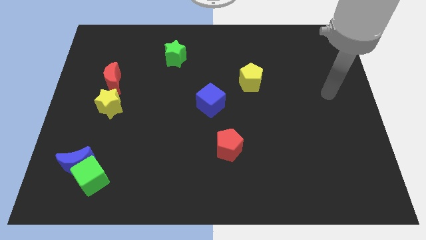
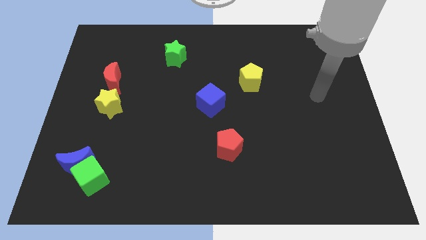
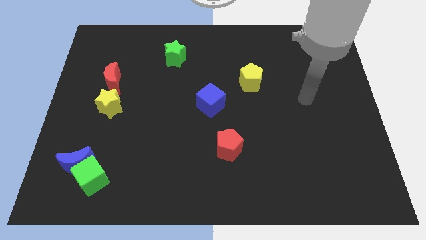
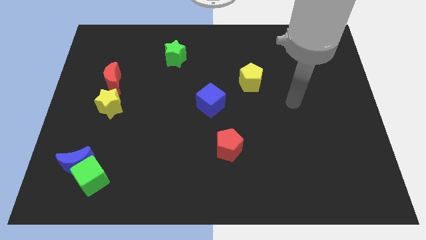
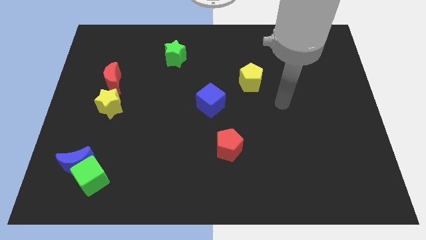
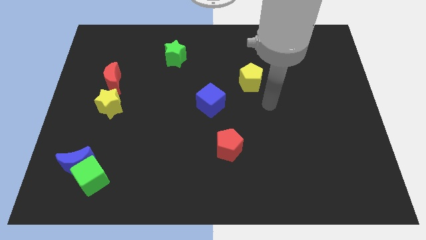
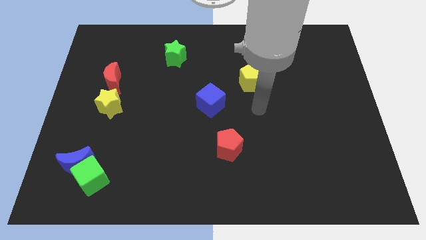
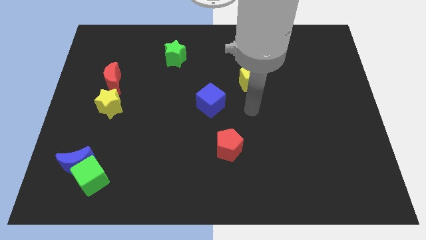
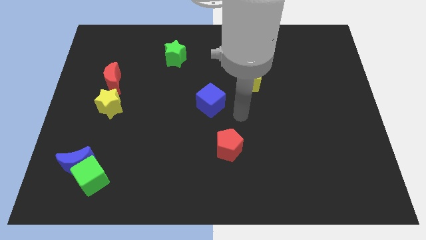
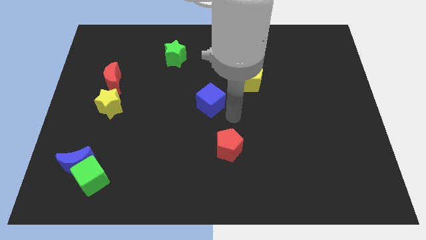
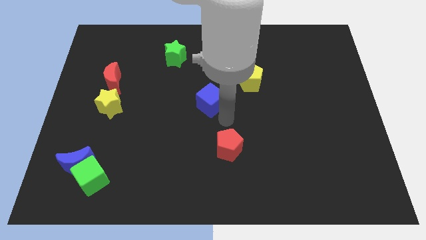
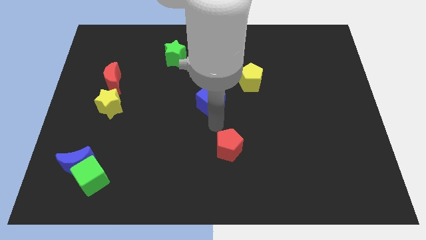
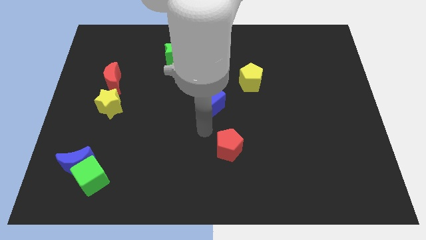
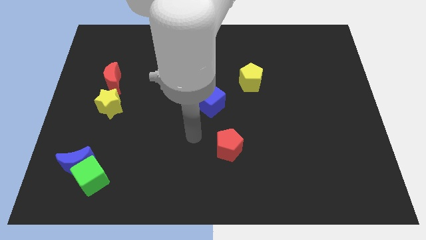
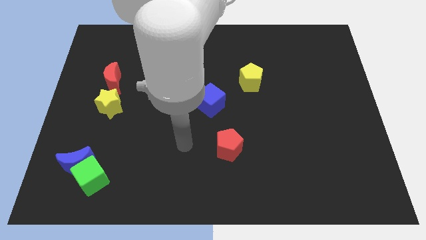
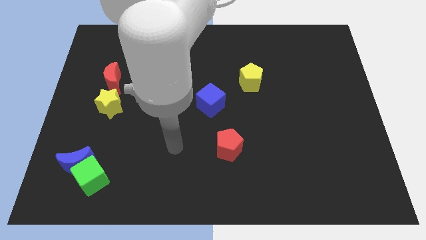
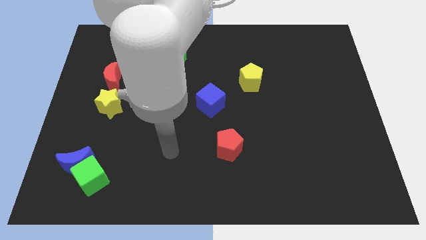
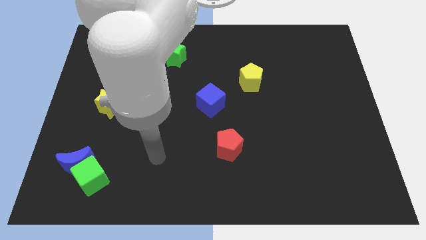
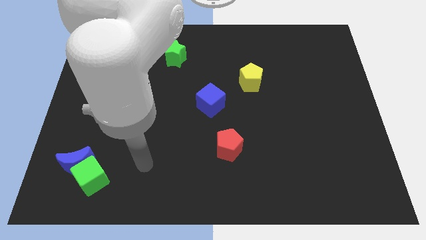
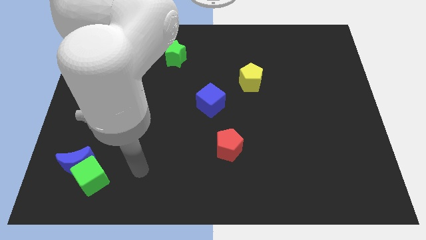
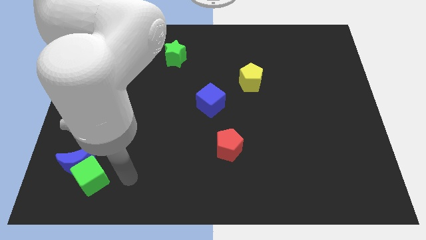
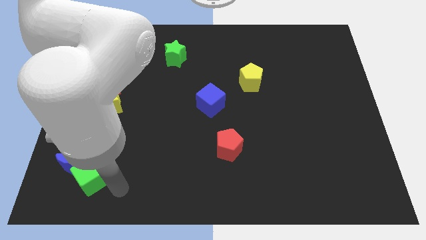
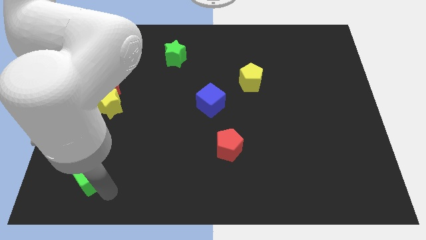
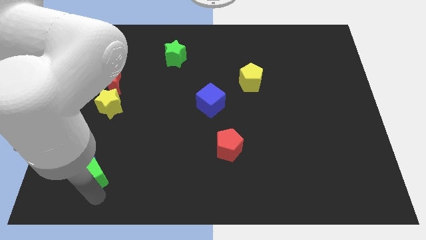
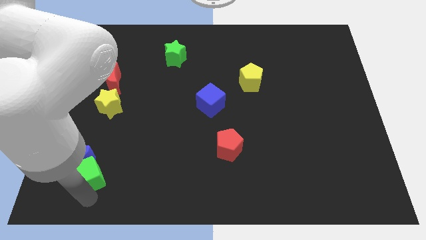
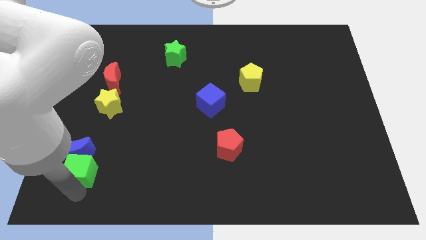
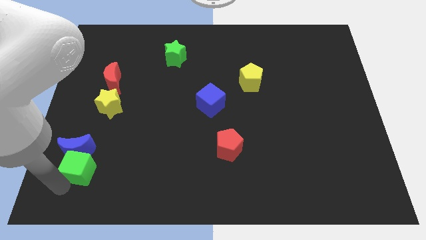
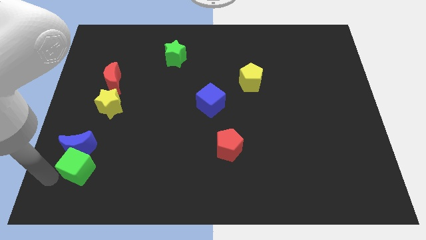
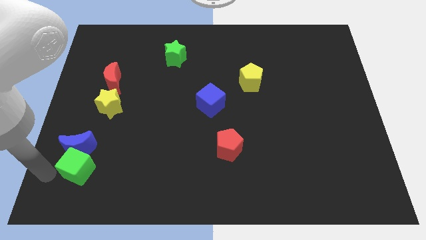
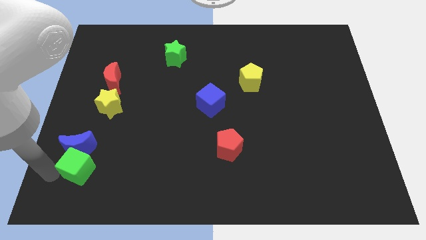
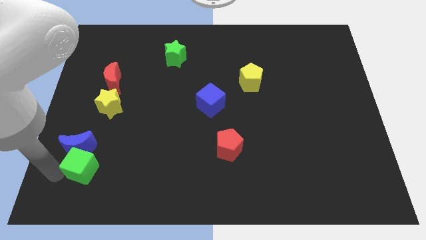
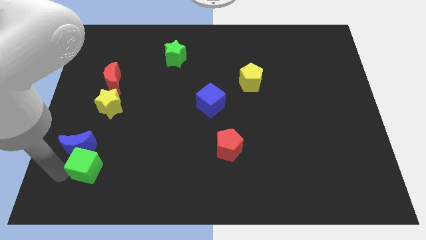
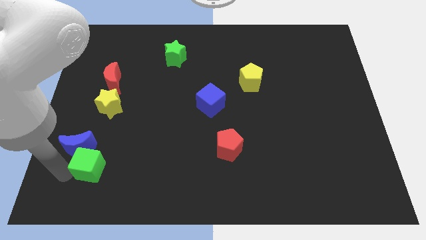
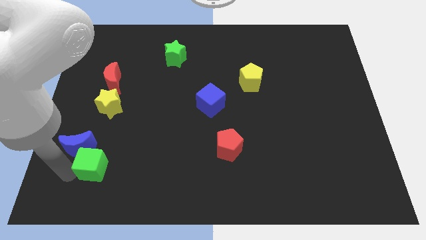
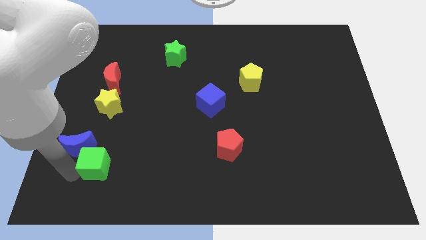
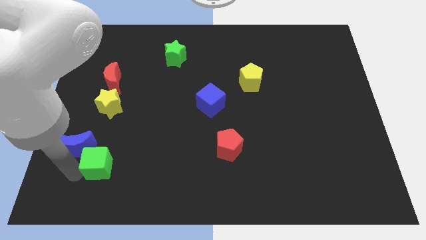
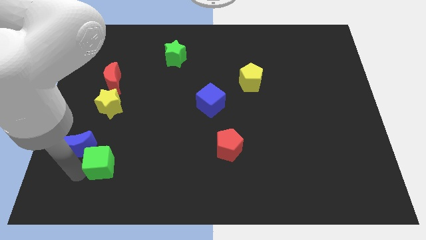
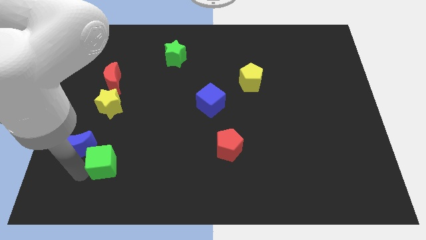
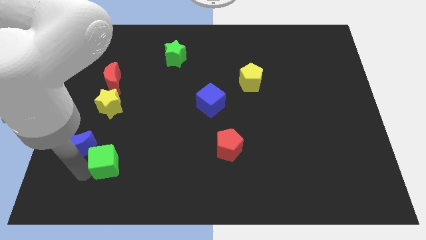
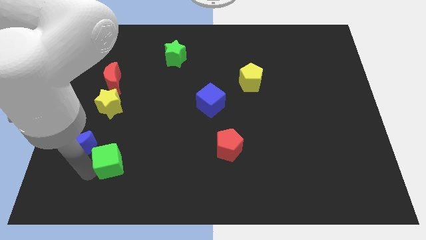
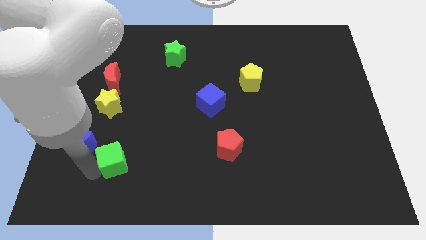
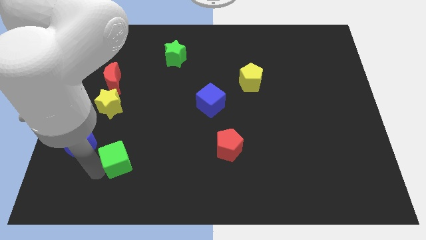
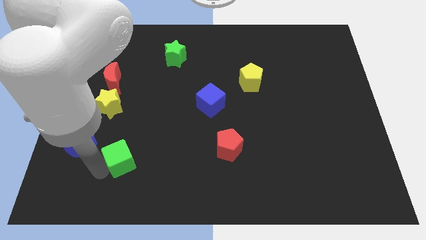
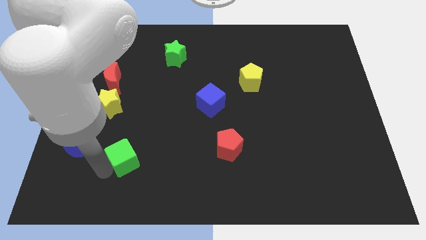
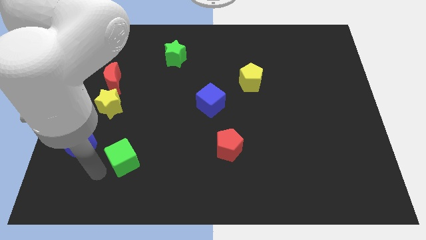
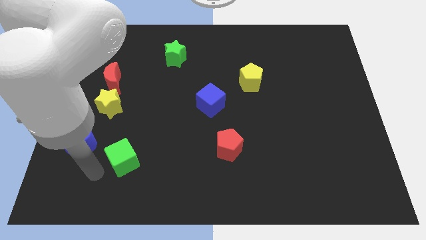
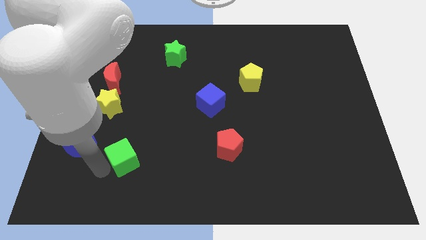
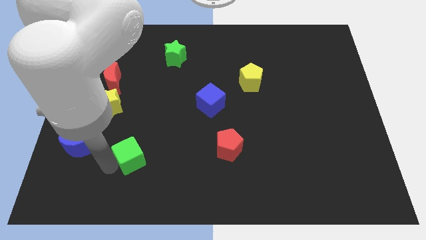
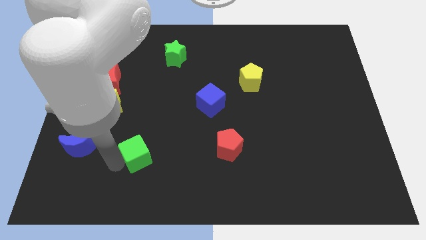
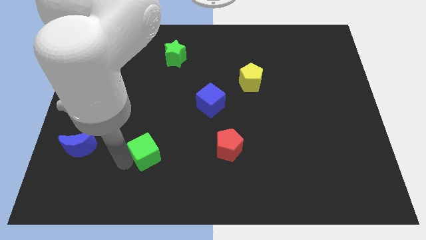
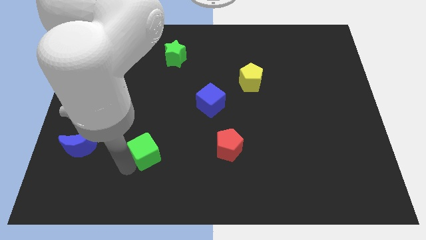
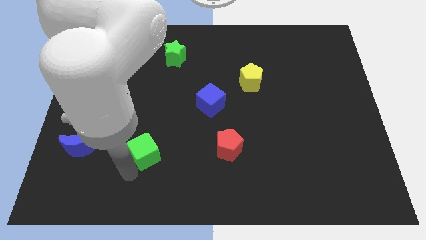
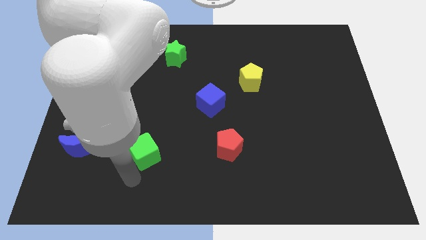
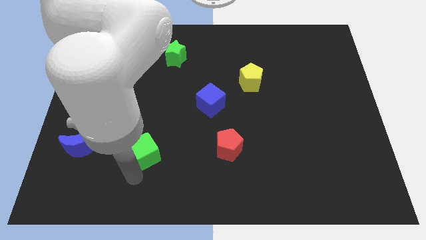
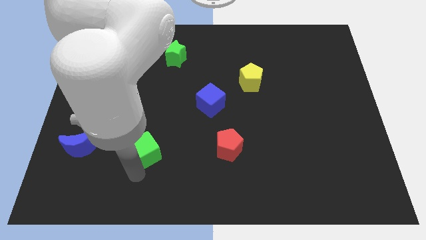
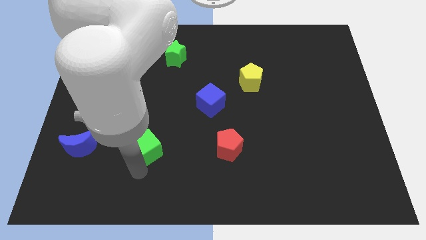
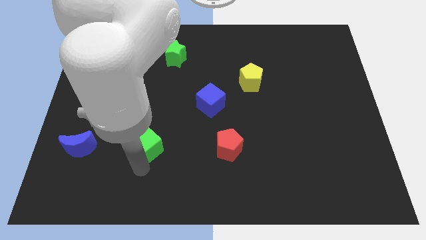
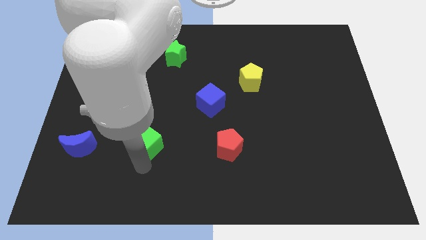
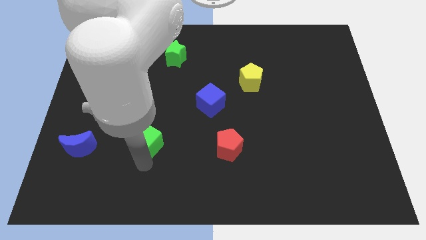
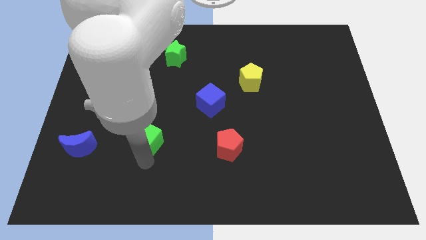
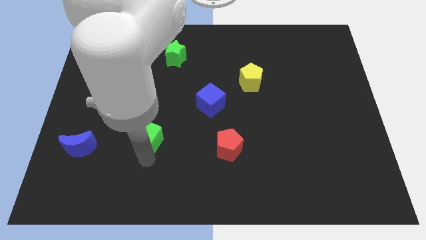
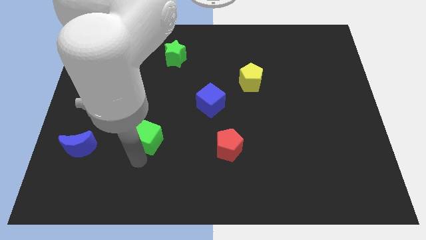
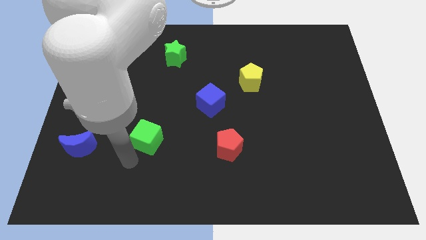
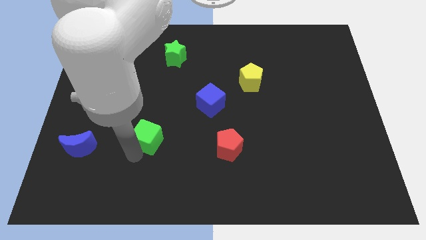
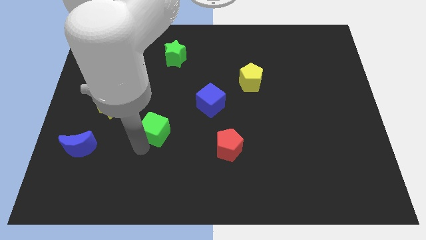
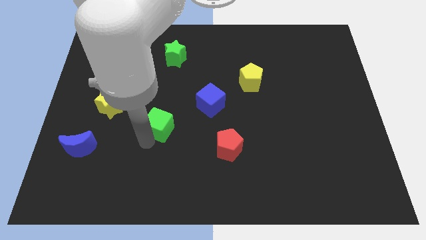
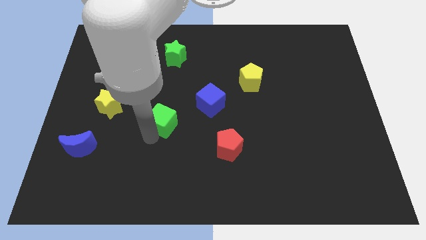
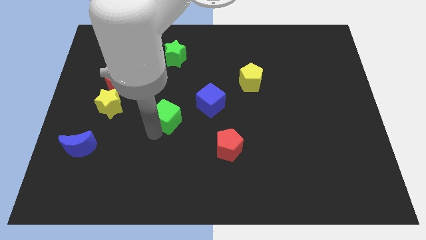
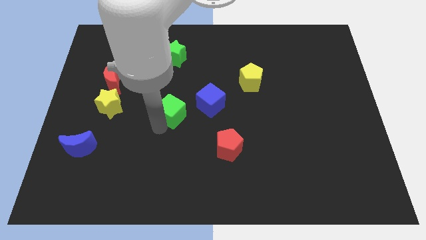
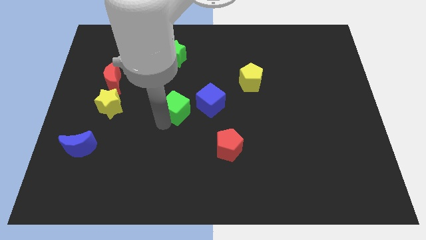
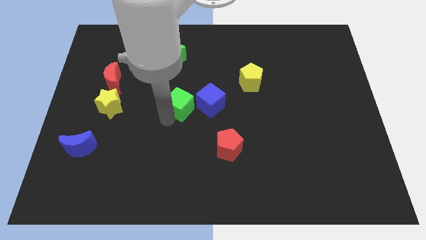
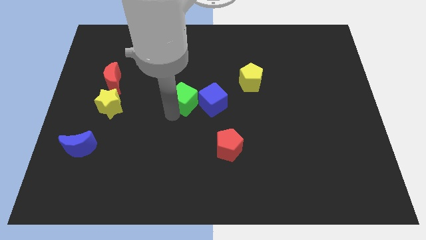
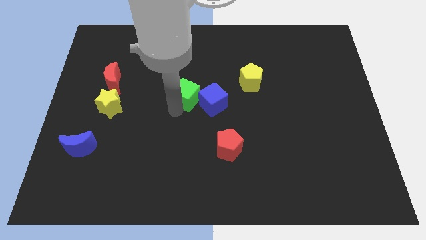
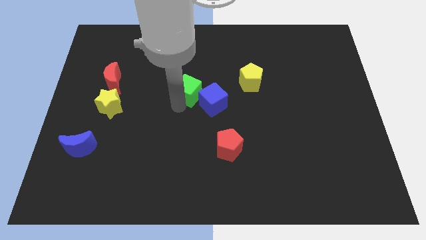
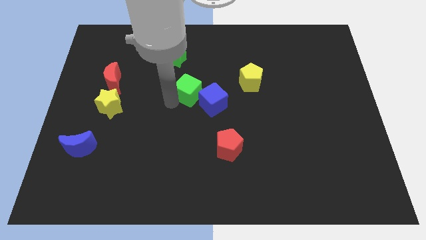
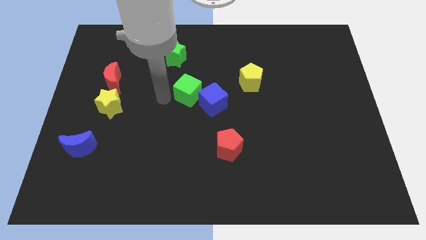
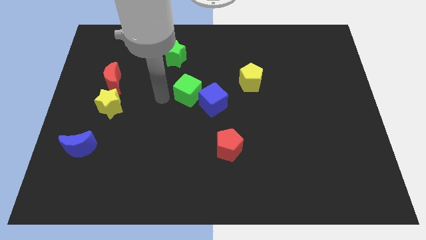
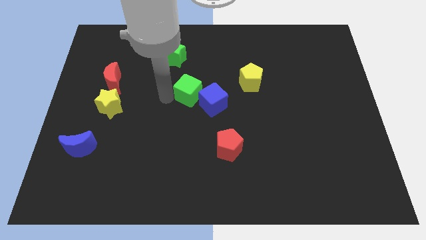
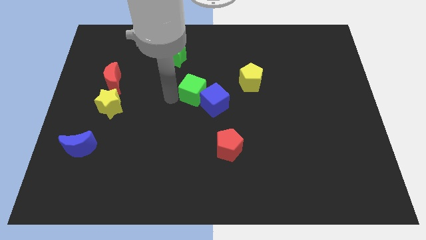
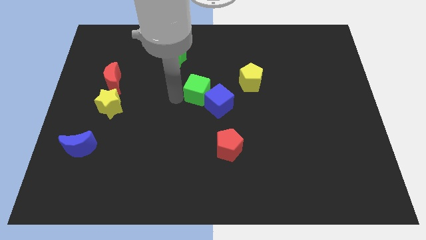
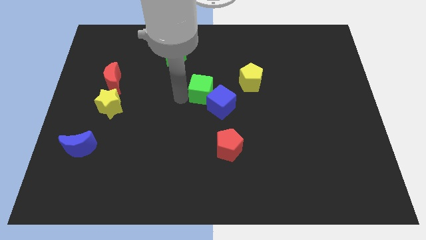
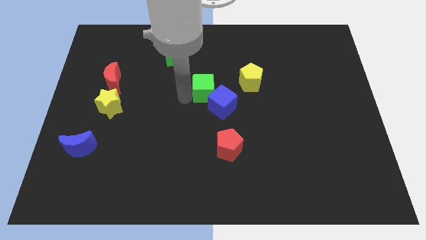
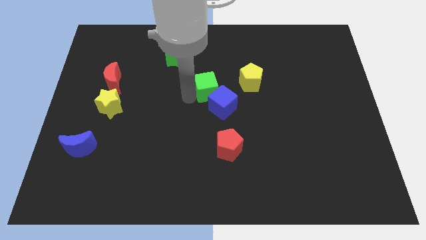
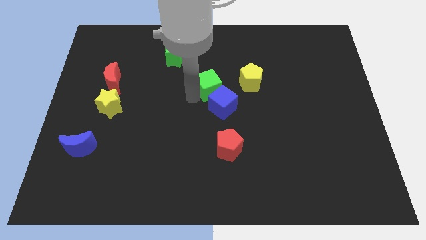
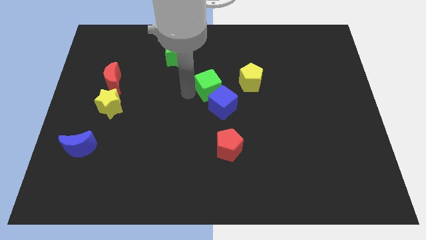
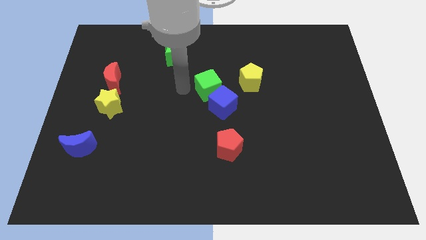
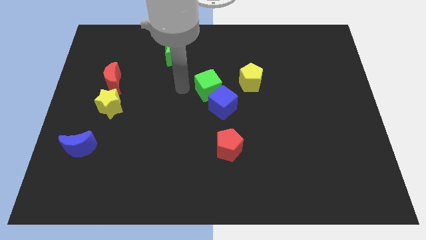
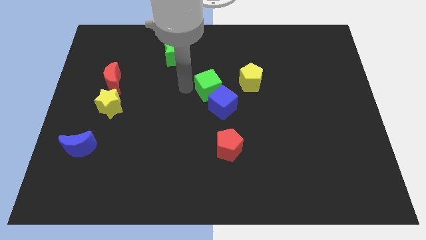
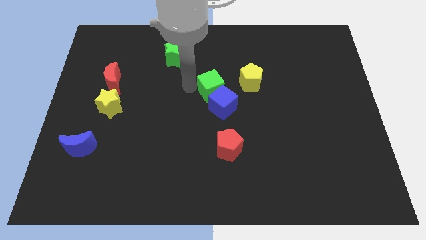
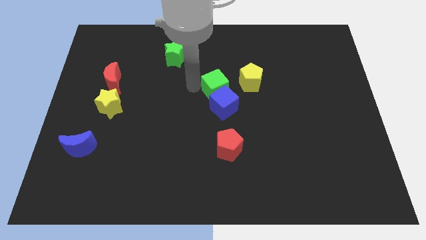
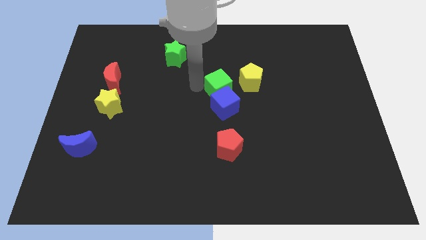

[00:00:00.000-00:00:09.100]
put the green cube diagonally up and to the right of the blue cube
